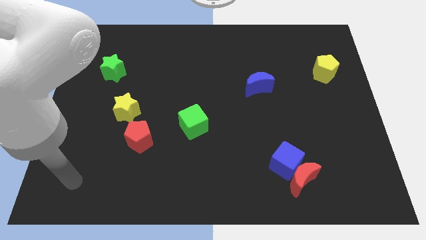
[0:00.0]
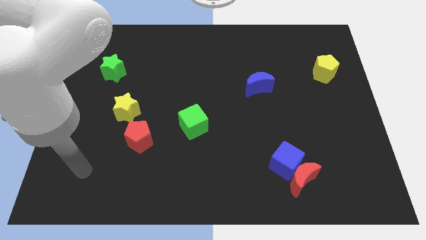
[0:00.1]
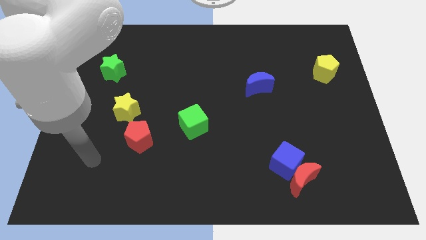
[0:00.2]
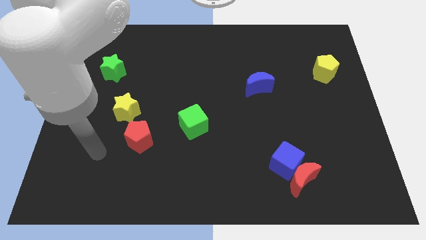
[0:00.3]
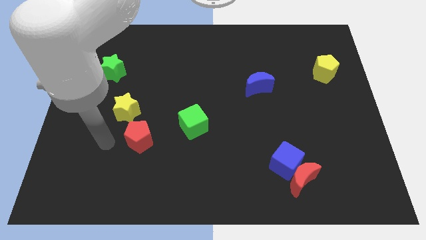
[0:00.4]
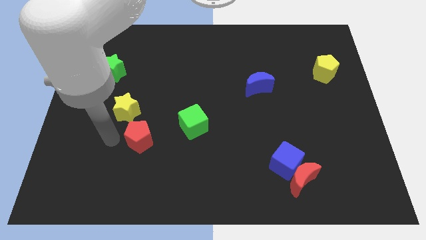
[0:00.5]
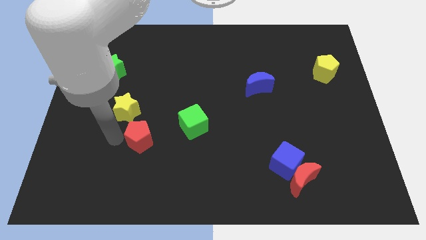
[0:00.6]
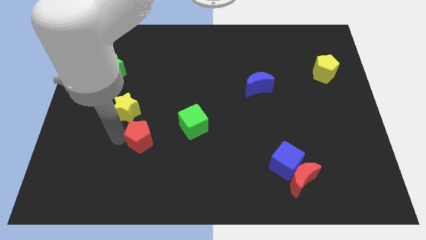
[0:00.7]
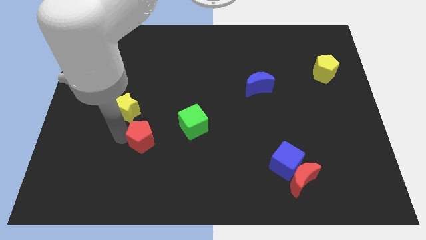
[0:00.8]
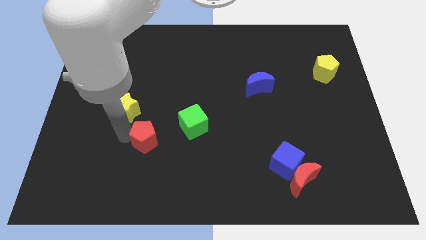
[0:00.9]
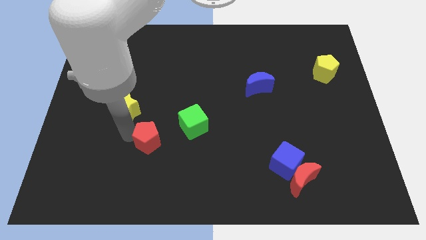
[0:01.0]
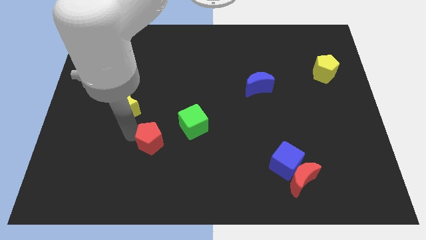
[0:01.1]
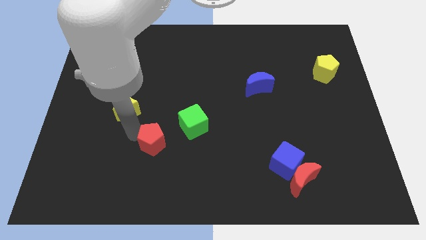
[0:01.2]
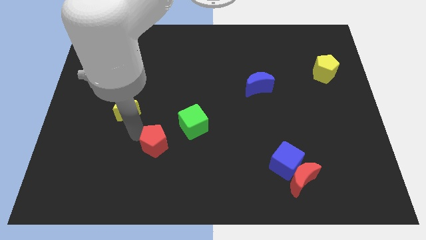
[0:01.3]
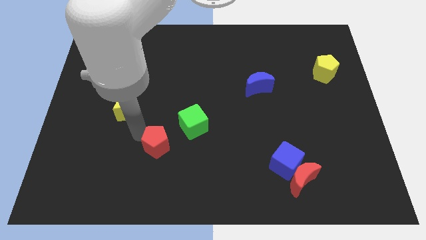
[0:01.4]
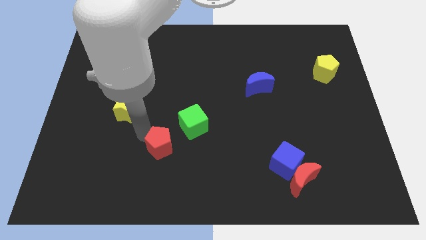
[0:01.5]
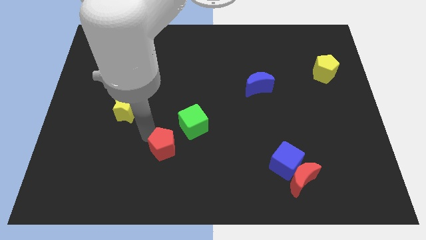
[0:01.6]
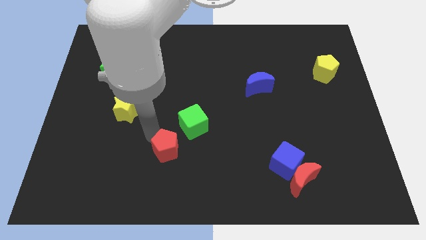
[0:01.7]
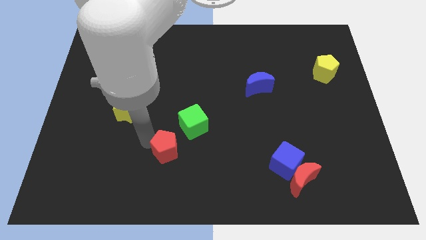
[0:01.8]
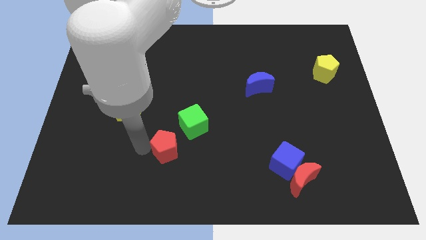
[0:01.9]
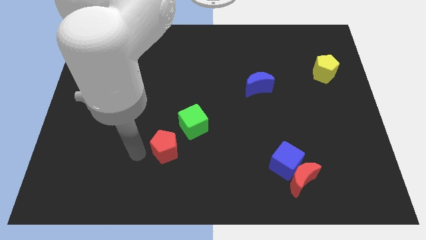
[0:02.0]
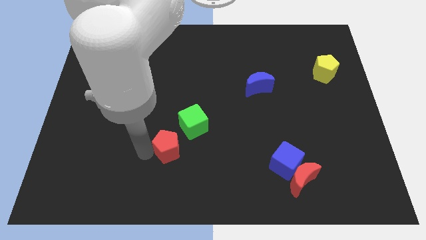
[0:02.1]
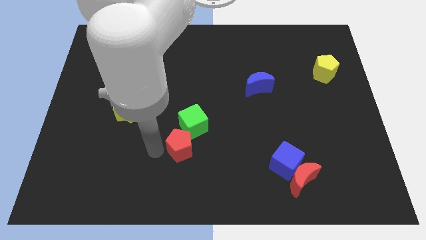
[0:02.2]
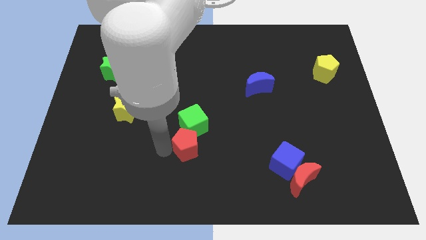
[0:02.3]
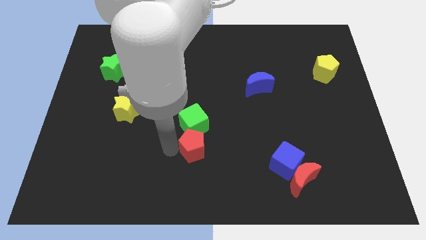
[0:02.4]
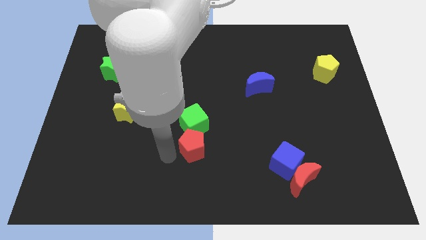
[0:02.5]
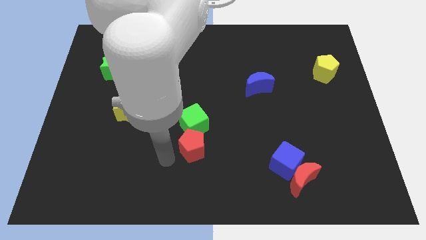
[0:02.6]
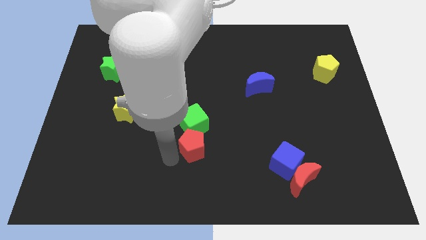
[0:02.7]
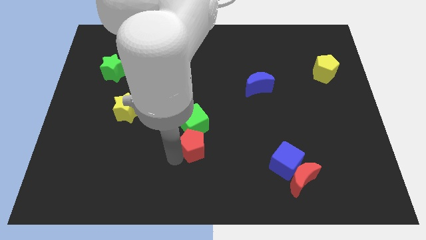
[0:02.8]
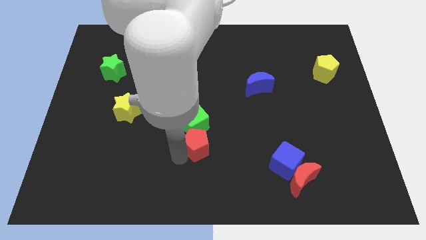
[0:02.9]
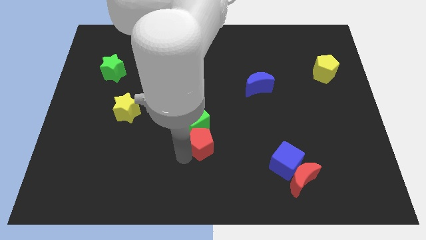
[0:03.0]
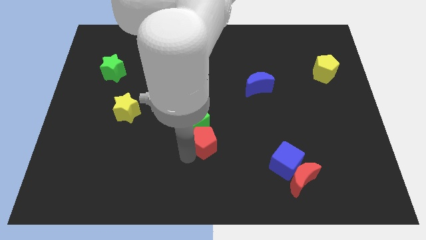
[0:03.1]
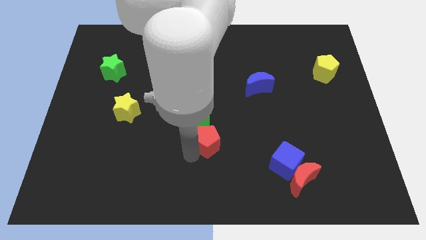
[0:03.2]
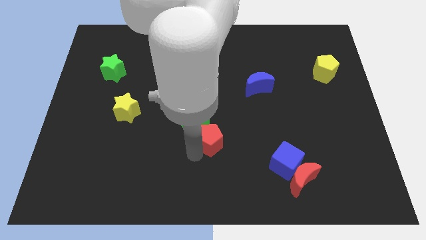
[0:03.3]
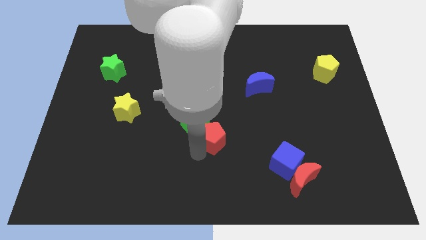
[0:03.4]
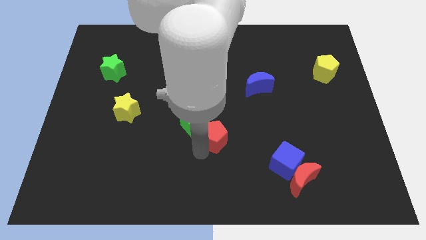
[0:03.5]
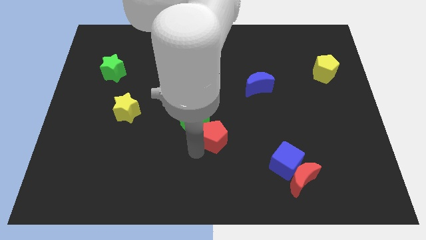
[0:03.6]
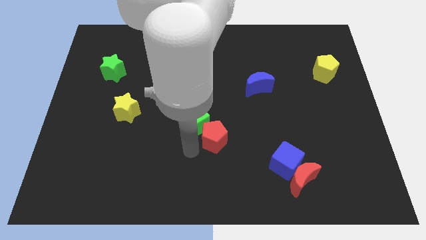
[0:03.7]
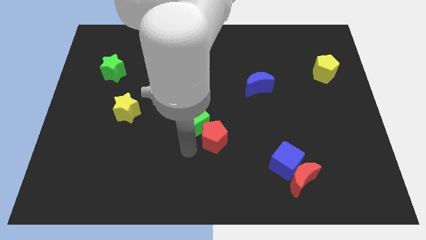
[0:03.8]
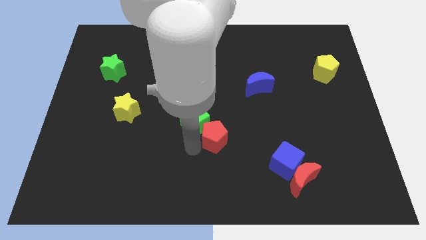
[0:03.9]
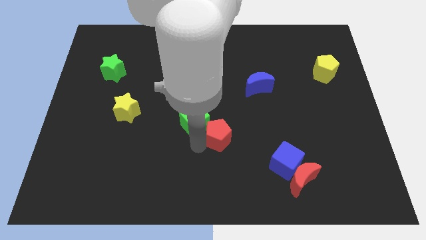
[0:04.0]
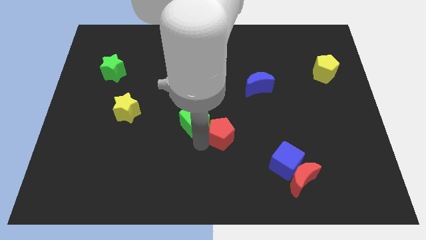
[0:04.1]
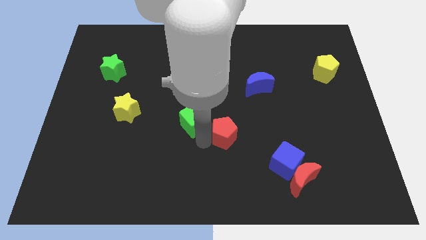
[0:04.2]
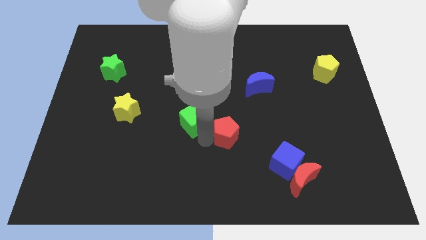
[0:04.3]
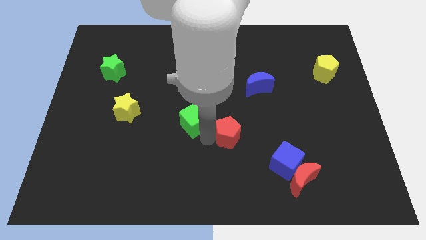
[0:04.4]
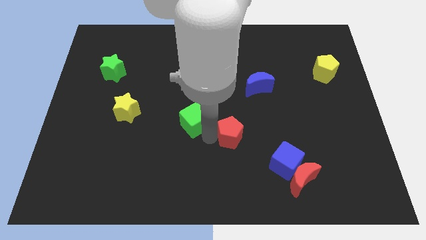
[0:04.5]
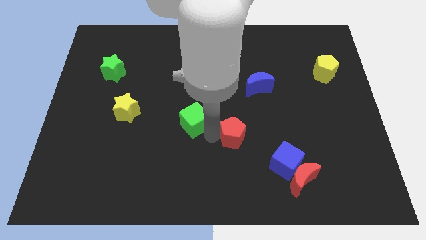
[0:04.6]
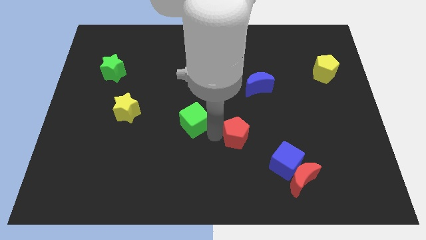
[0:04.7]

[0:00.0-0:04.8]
push the red pentagon diagonally up and to the left of the blue cube

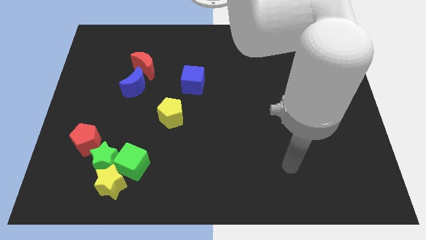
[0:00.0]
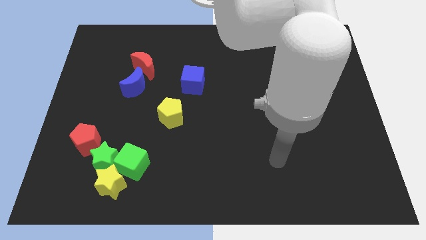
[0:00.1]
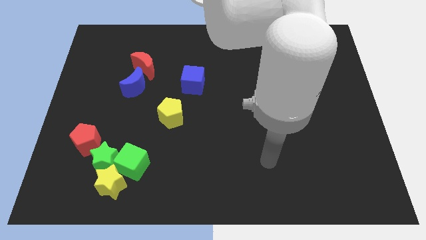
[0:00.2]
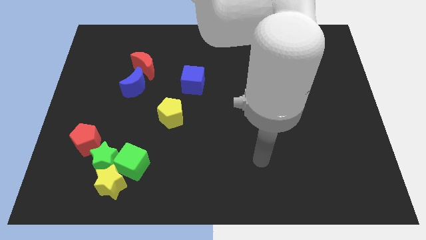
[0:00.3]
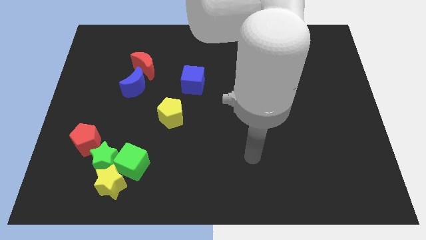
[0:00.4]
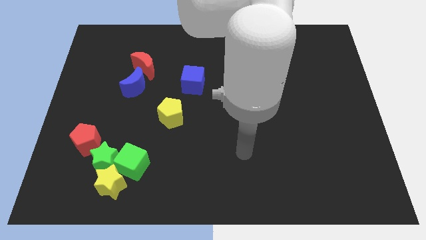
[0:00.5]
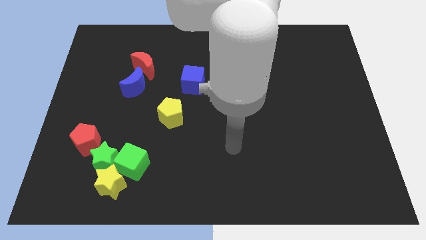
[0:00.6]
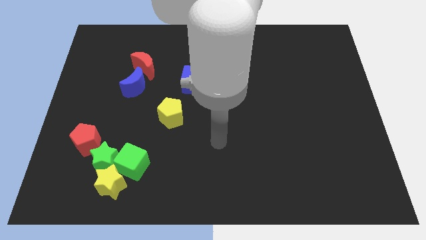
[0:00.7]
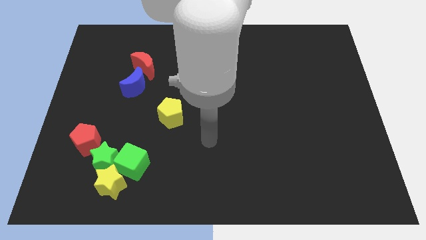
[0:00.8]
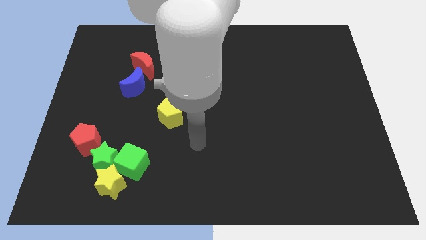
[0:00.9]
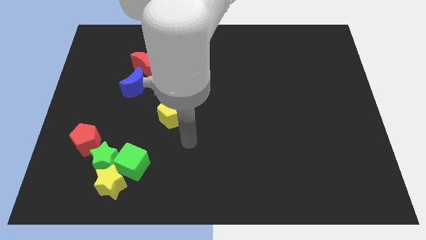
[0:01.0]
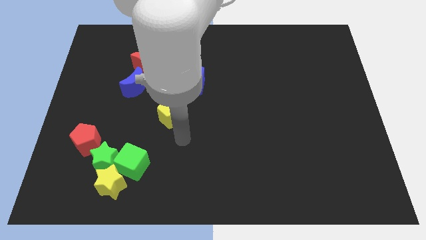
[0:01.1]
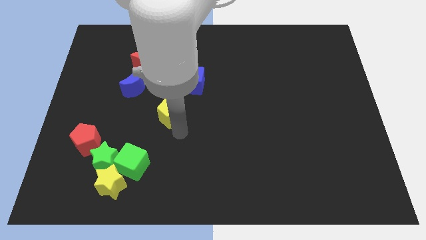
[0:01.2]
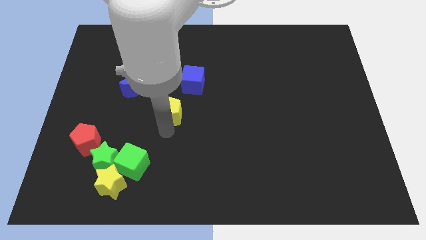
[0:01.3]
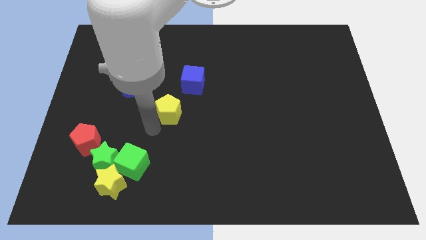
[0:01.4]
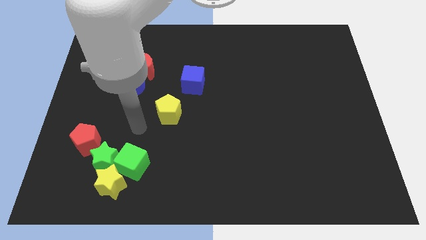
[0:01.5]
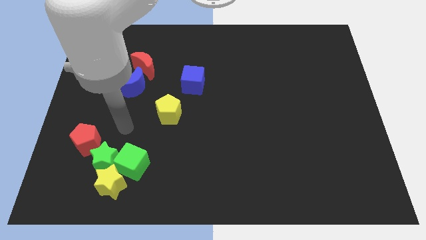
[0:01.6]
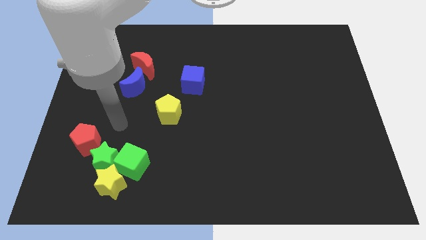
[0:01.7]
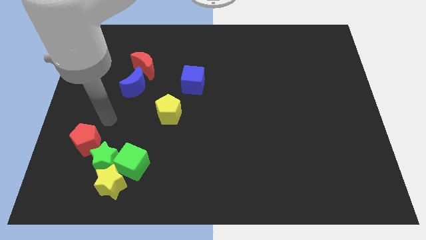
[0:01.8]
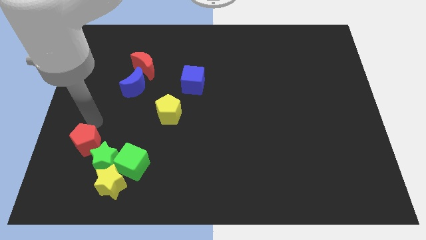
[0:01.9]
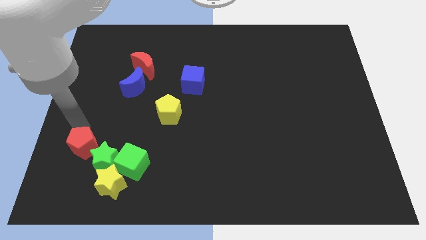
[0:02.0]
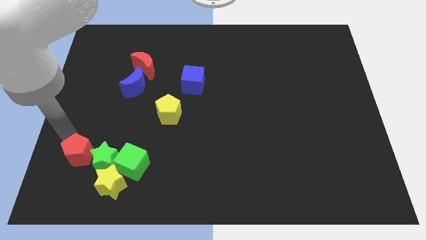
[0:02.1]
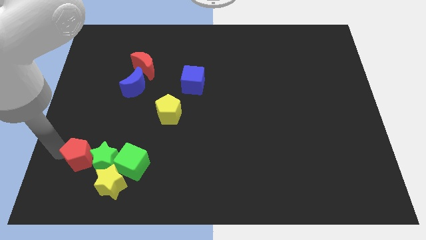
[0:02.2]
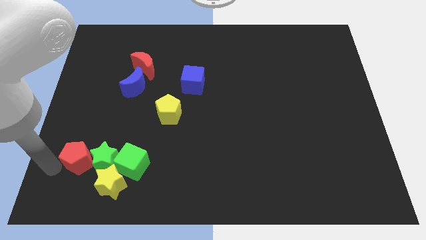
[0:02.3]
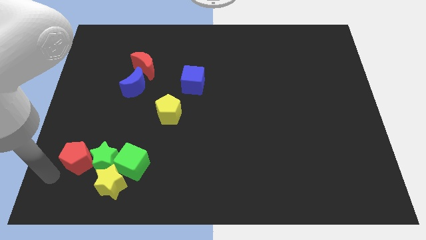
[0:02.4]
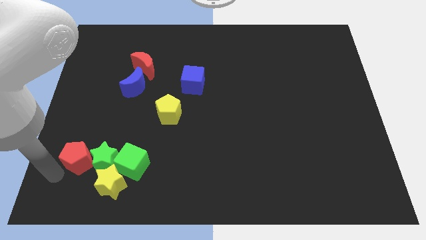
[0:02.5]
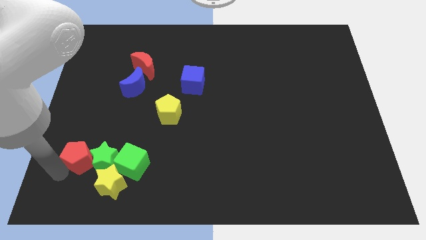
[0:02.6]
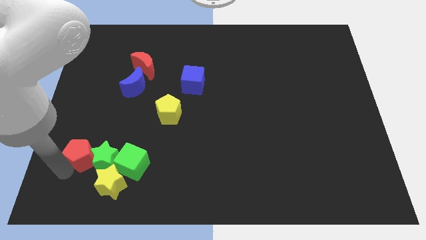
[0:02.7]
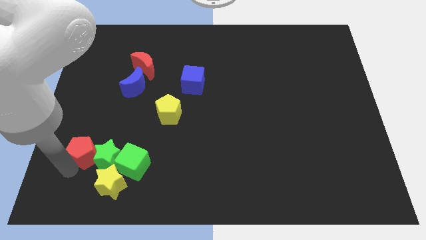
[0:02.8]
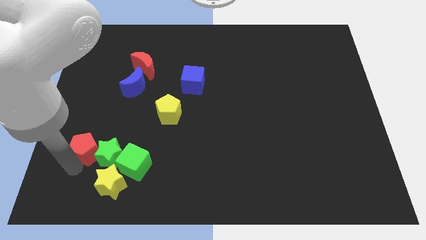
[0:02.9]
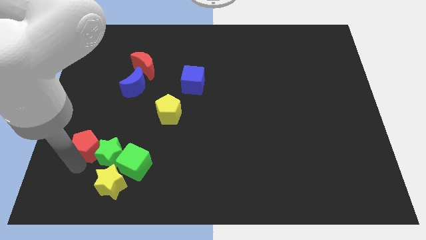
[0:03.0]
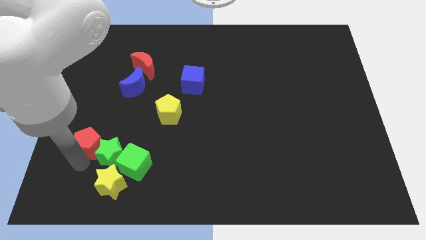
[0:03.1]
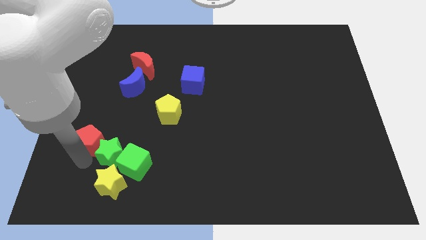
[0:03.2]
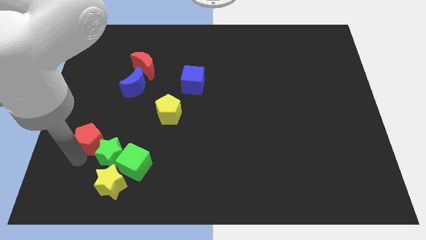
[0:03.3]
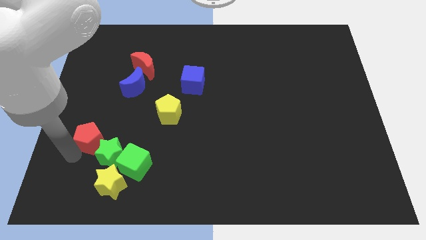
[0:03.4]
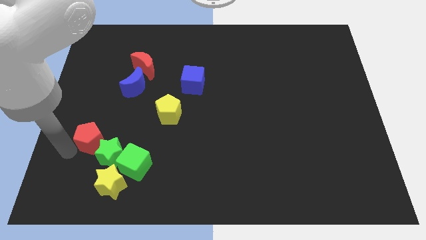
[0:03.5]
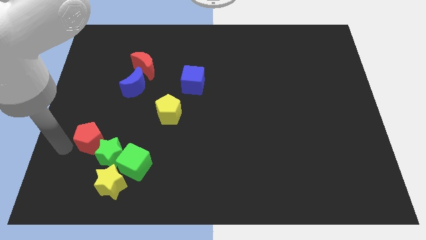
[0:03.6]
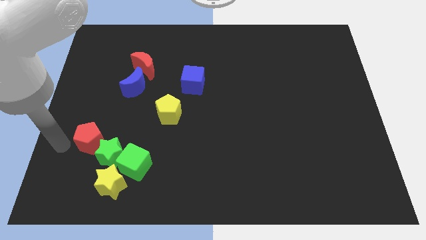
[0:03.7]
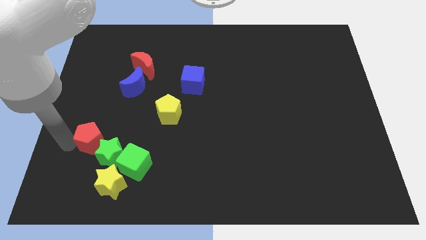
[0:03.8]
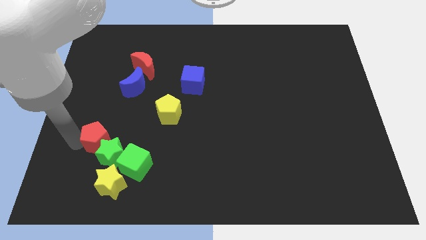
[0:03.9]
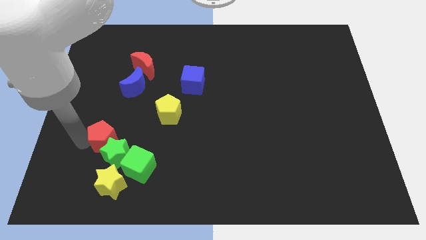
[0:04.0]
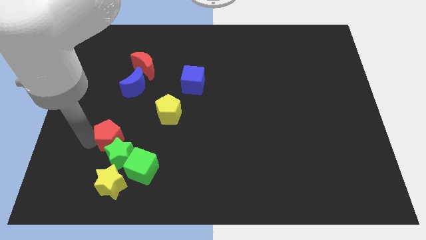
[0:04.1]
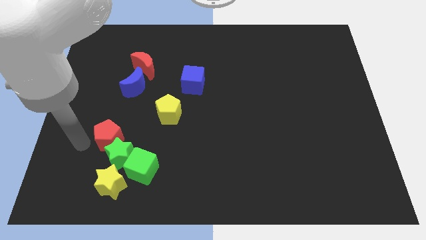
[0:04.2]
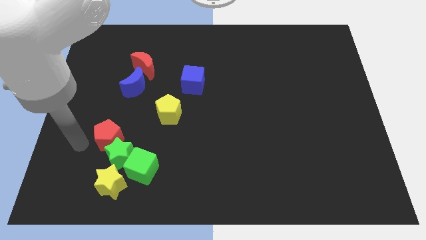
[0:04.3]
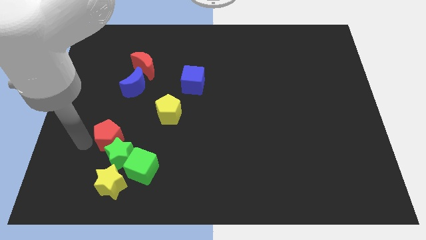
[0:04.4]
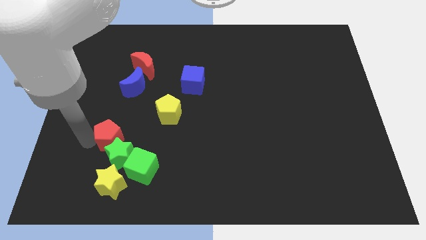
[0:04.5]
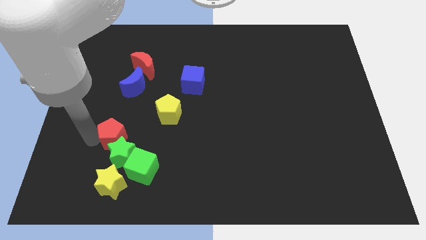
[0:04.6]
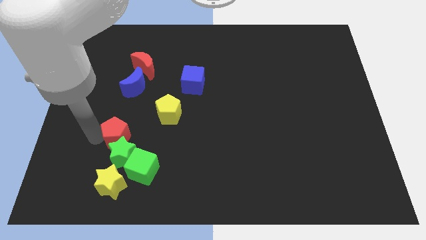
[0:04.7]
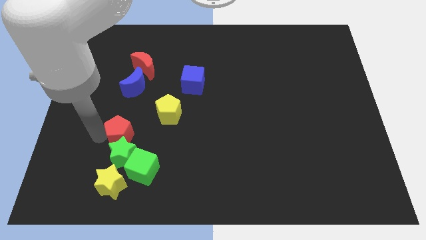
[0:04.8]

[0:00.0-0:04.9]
put the red pentagon to the bottom left side of the yellow pentagon
